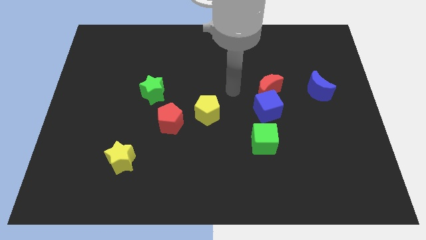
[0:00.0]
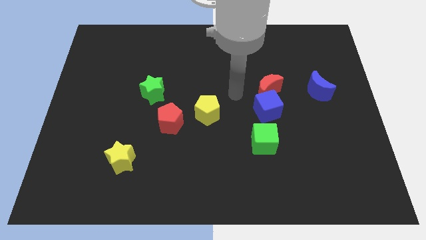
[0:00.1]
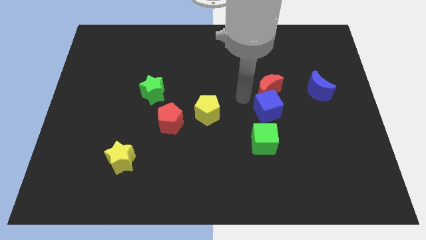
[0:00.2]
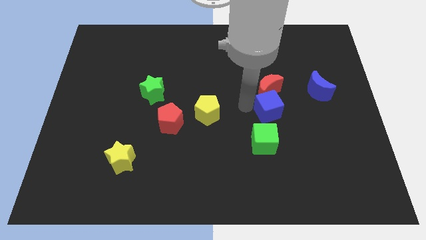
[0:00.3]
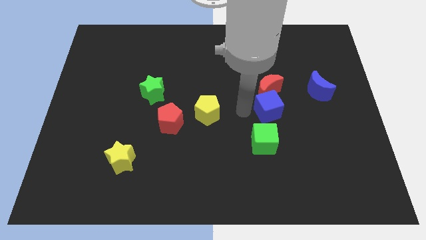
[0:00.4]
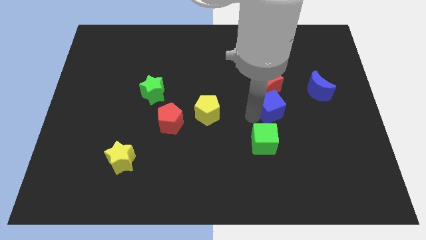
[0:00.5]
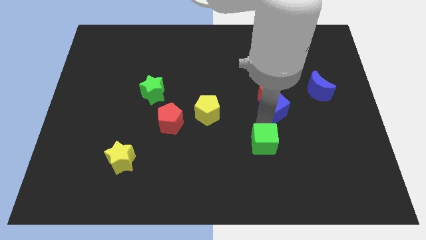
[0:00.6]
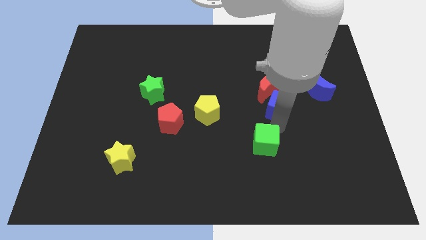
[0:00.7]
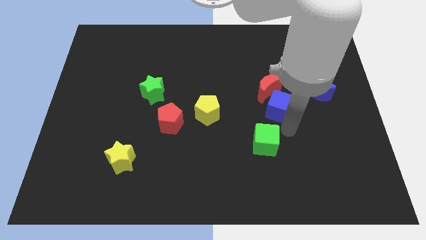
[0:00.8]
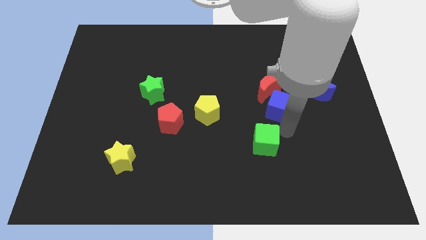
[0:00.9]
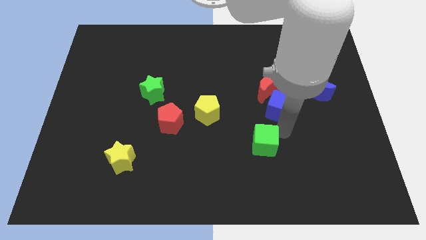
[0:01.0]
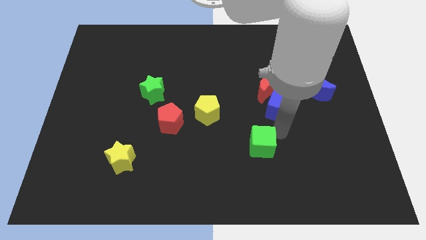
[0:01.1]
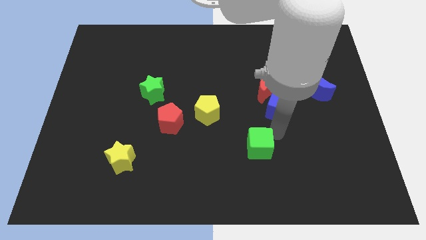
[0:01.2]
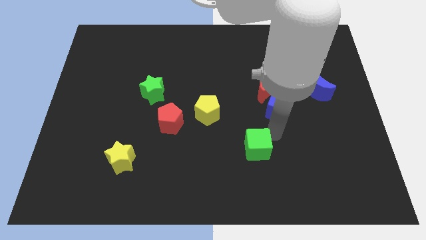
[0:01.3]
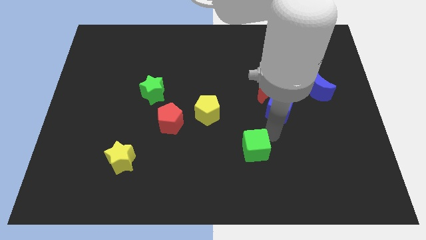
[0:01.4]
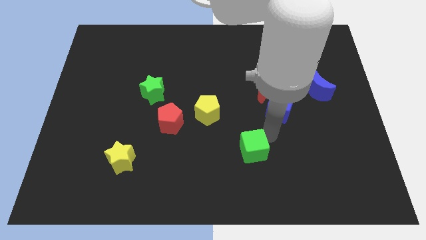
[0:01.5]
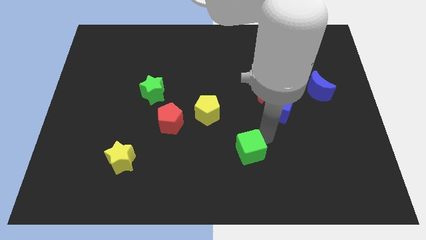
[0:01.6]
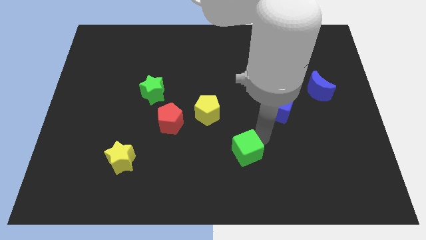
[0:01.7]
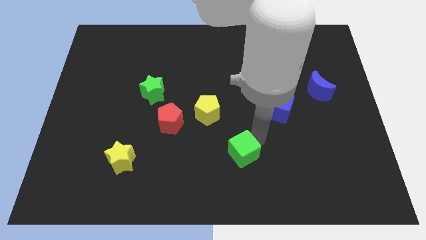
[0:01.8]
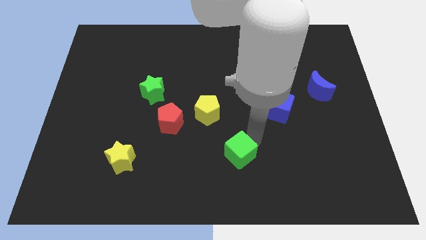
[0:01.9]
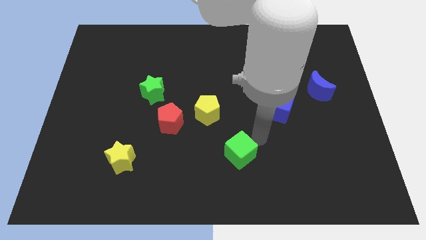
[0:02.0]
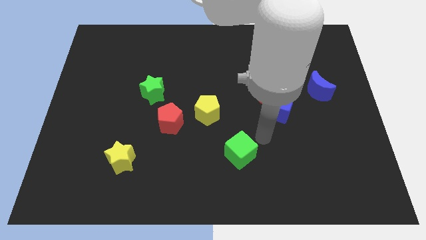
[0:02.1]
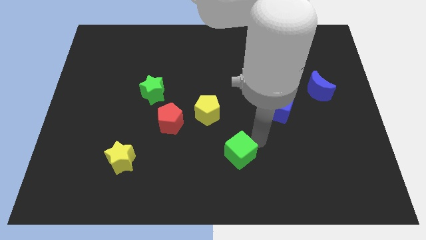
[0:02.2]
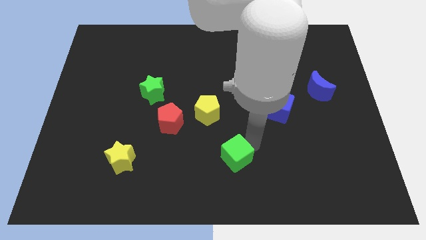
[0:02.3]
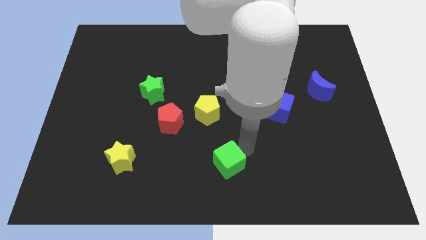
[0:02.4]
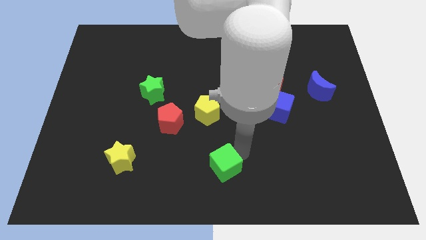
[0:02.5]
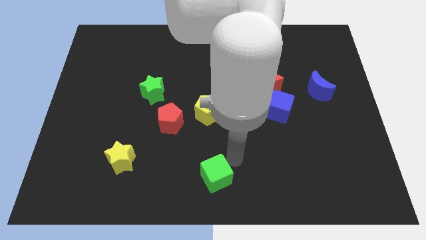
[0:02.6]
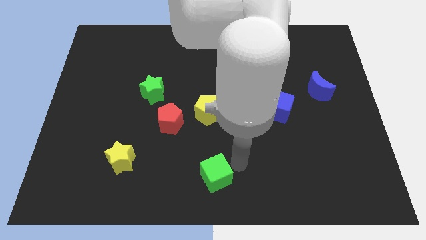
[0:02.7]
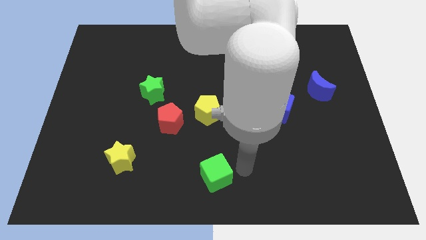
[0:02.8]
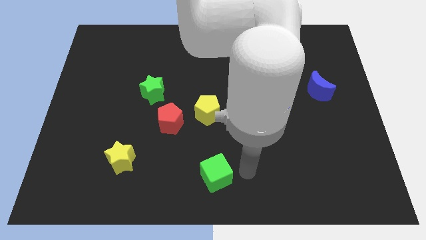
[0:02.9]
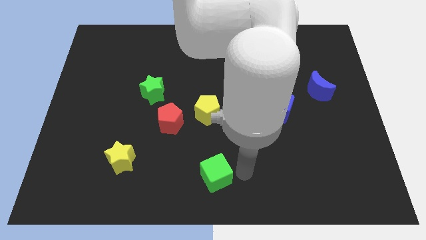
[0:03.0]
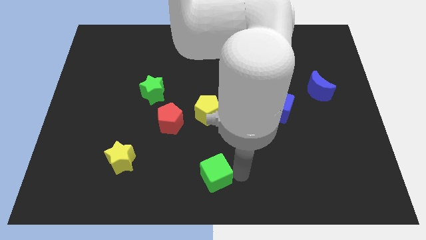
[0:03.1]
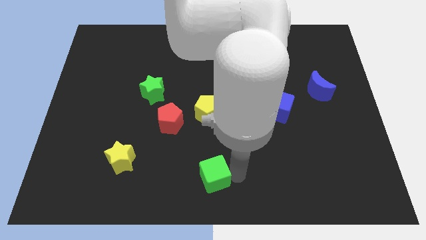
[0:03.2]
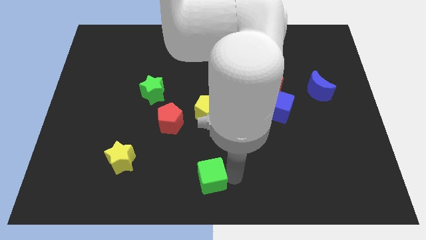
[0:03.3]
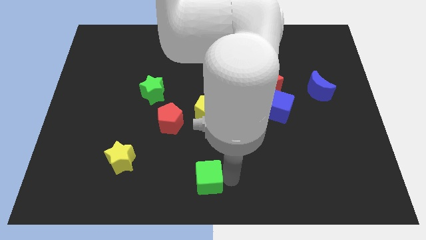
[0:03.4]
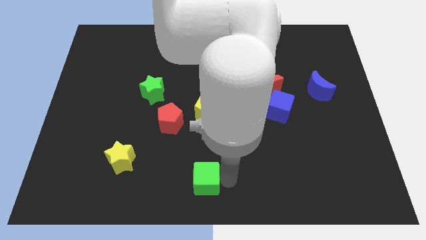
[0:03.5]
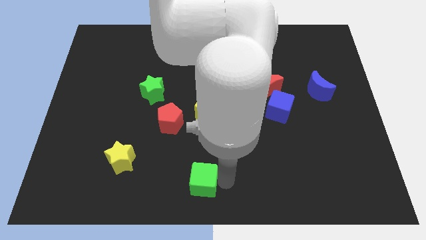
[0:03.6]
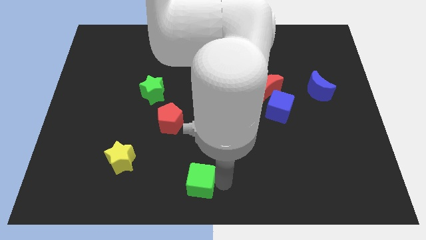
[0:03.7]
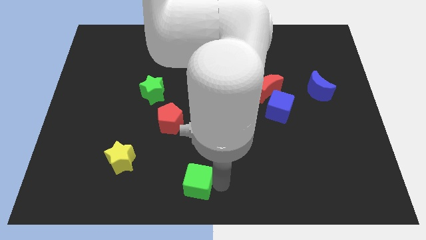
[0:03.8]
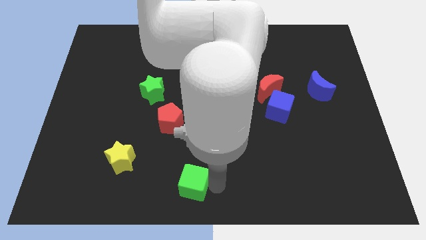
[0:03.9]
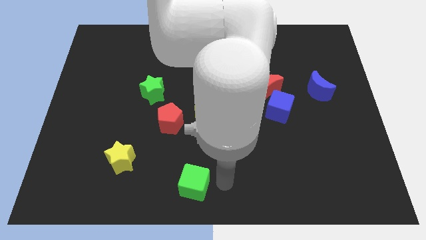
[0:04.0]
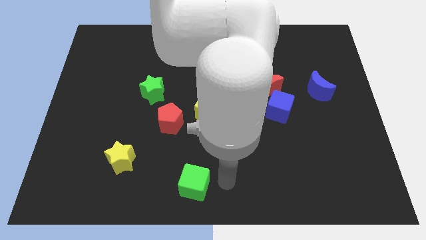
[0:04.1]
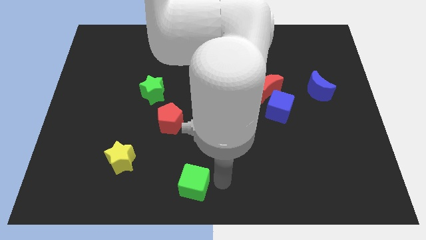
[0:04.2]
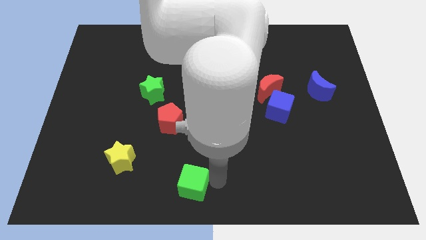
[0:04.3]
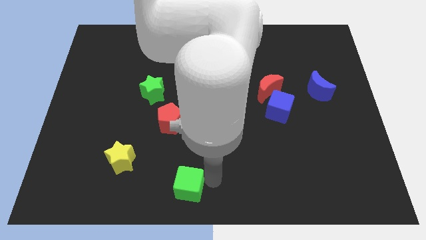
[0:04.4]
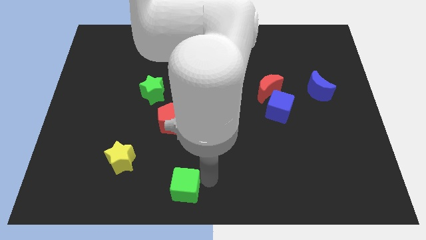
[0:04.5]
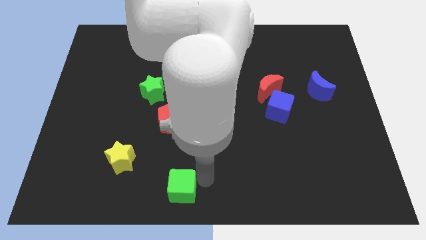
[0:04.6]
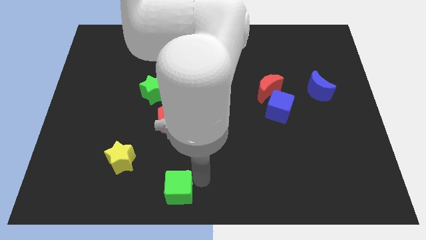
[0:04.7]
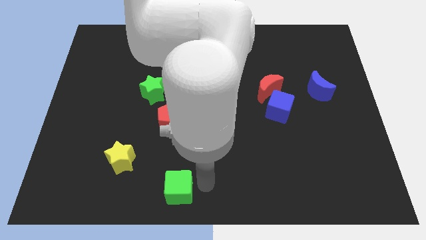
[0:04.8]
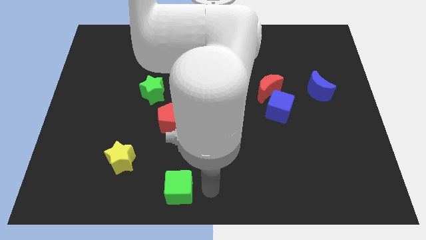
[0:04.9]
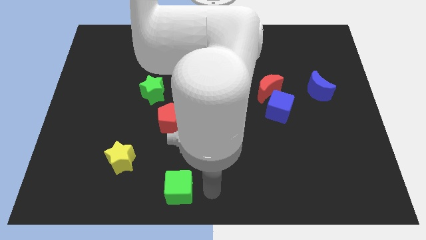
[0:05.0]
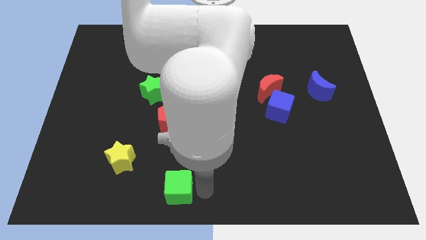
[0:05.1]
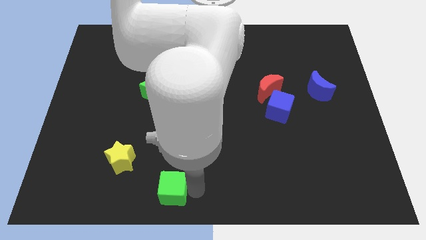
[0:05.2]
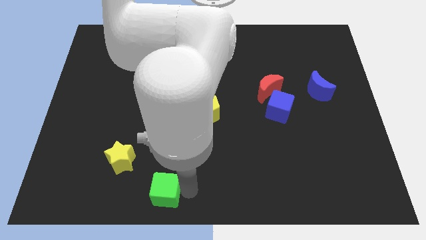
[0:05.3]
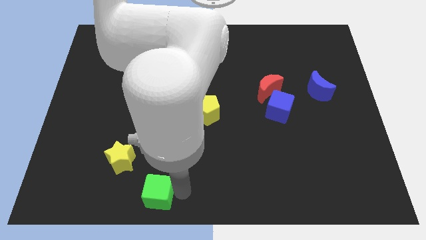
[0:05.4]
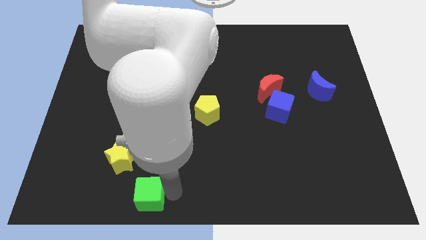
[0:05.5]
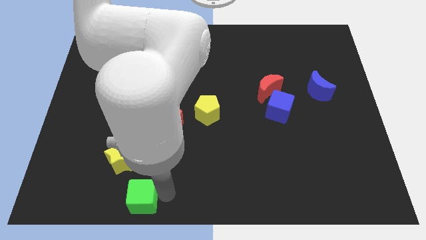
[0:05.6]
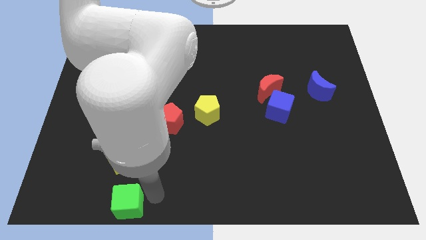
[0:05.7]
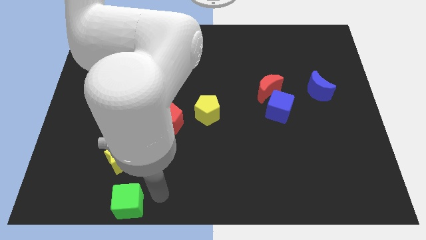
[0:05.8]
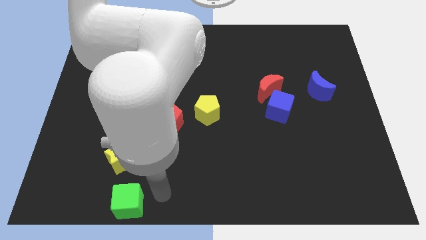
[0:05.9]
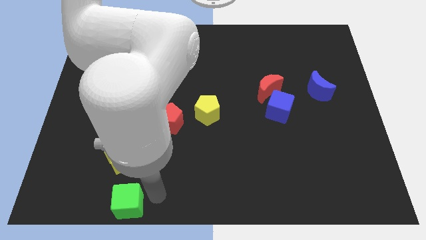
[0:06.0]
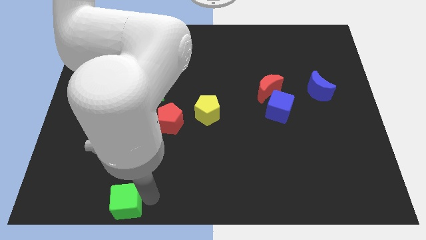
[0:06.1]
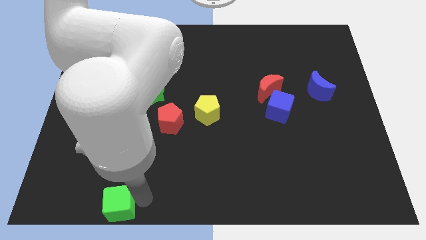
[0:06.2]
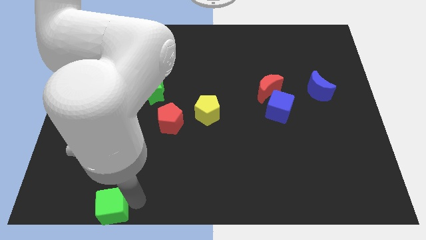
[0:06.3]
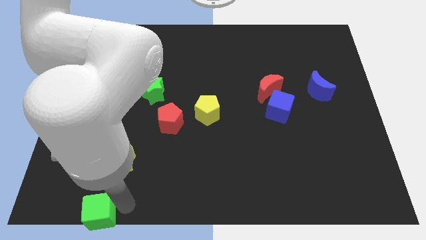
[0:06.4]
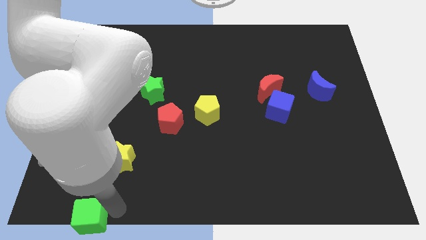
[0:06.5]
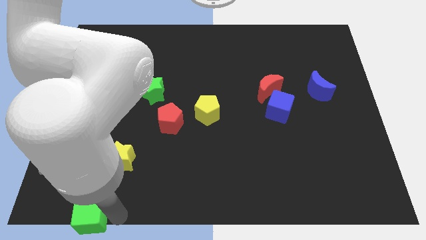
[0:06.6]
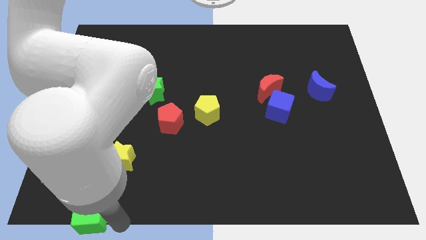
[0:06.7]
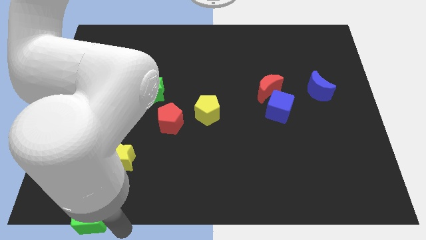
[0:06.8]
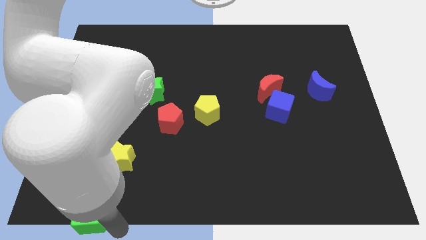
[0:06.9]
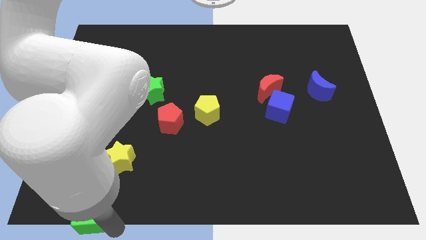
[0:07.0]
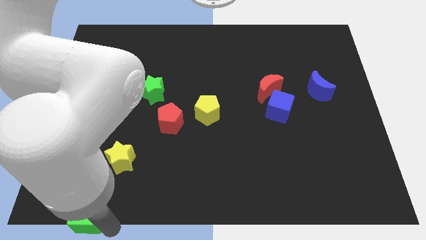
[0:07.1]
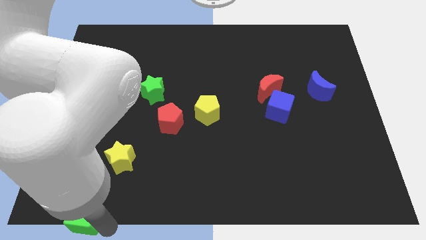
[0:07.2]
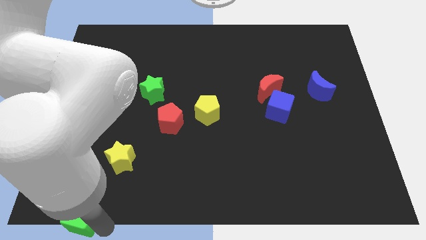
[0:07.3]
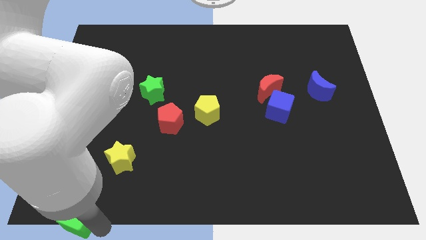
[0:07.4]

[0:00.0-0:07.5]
slide the green cube to the bottom left of the board
